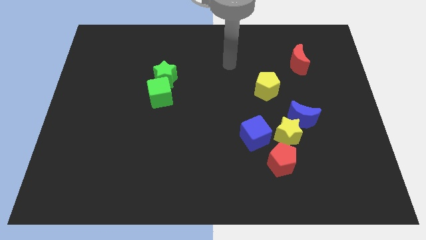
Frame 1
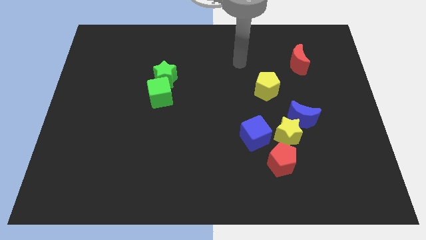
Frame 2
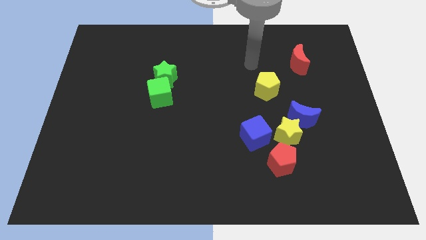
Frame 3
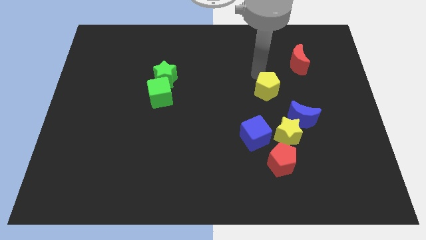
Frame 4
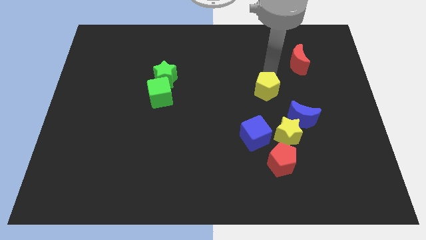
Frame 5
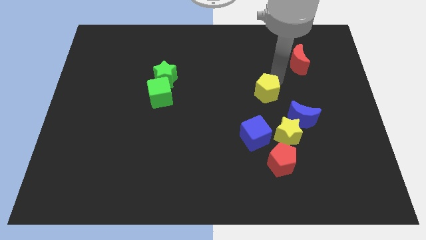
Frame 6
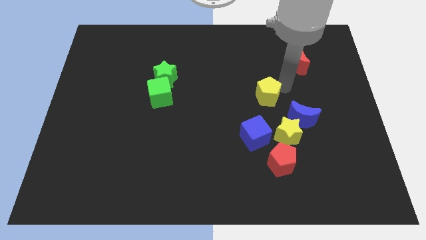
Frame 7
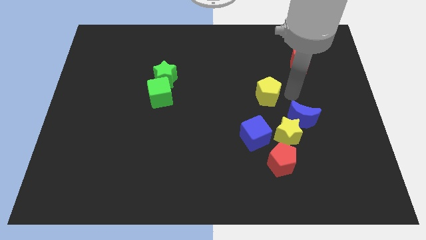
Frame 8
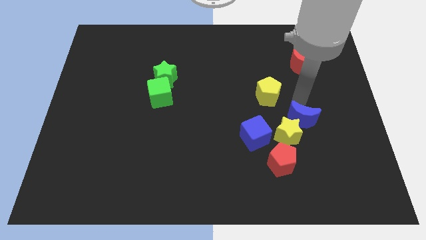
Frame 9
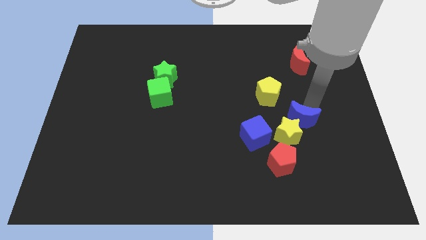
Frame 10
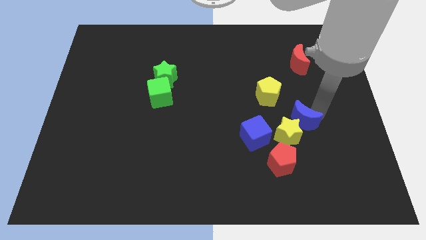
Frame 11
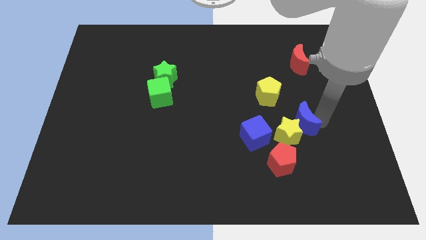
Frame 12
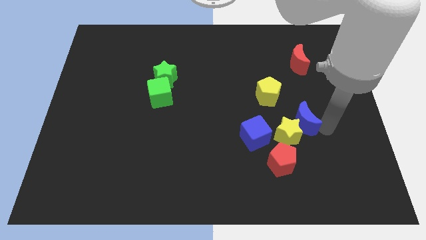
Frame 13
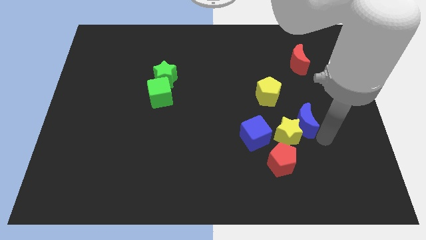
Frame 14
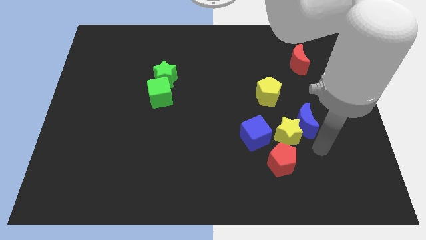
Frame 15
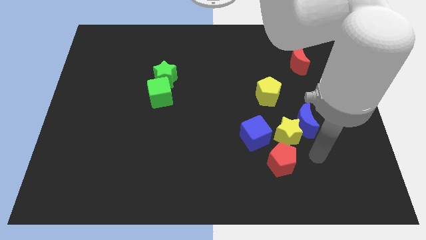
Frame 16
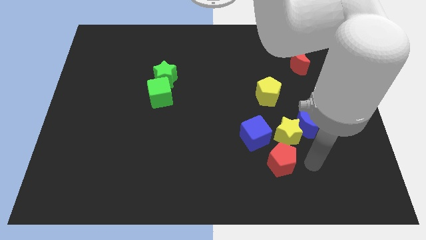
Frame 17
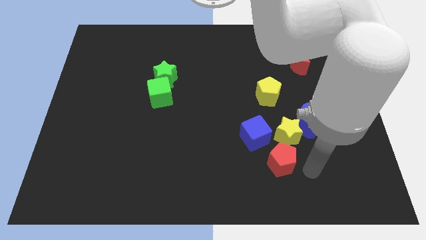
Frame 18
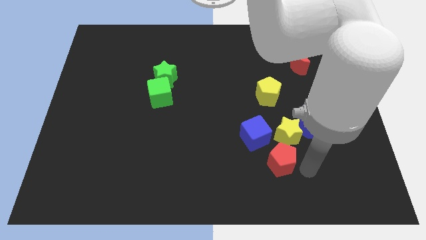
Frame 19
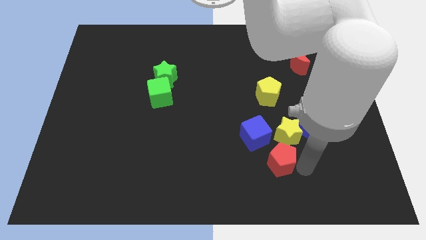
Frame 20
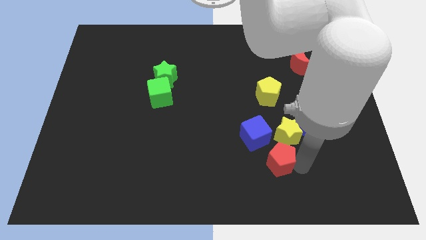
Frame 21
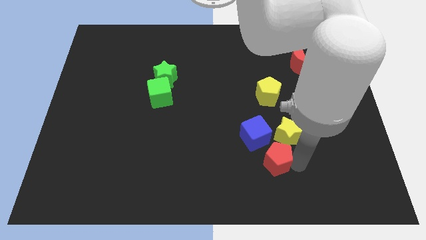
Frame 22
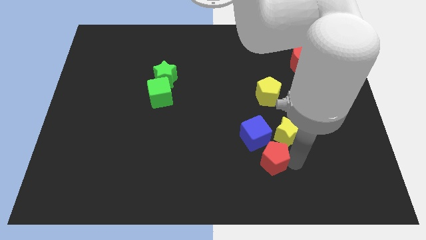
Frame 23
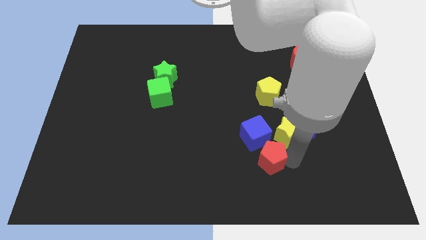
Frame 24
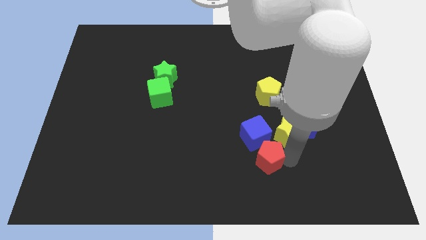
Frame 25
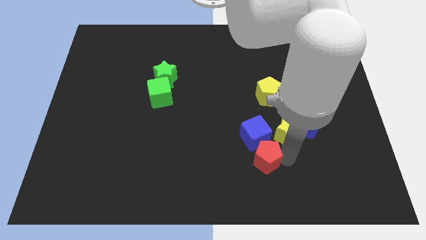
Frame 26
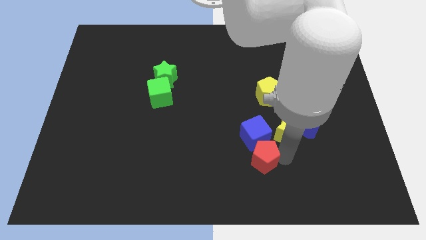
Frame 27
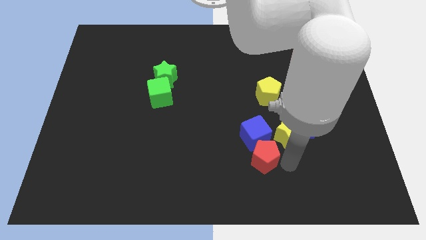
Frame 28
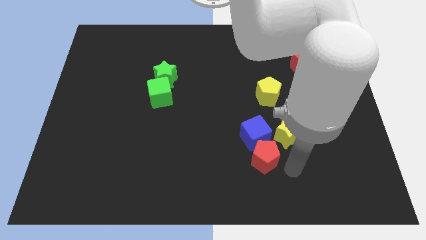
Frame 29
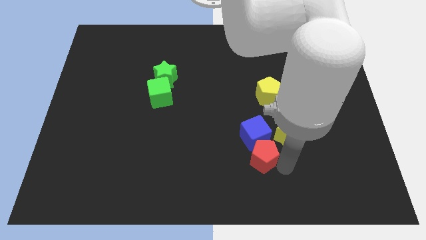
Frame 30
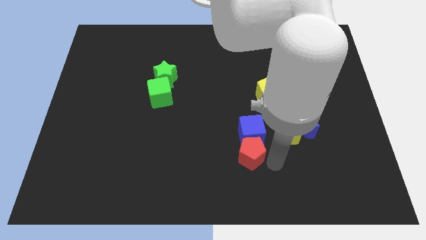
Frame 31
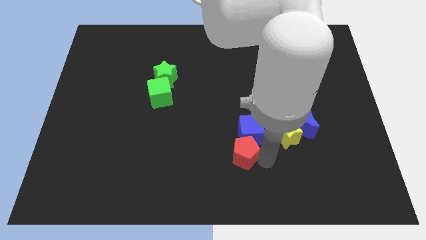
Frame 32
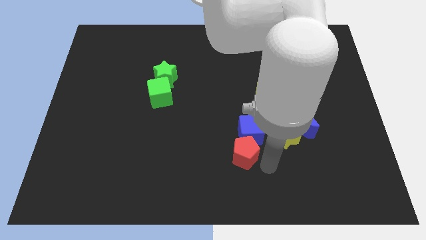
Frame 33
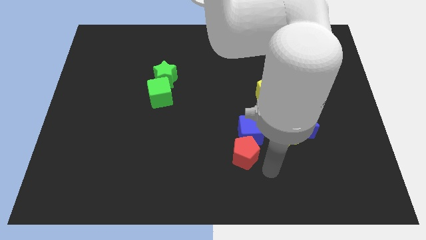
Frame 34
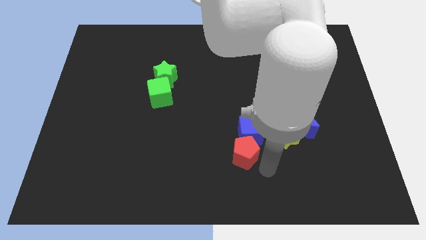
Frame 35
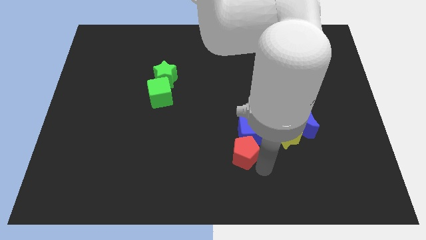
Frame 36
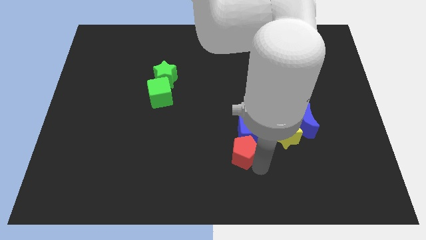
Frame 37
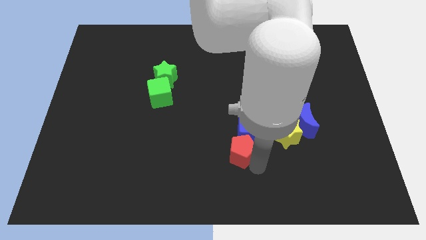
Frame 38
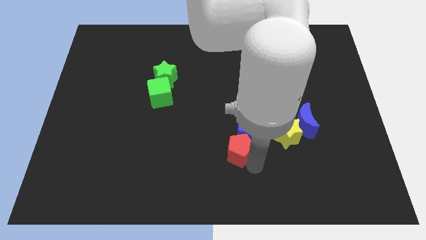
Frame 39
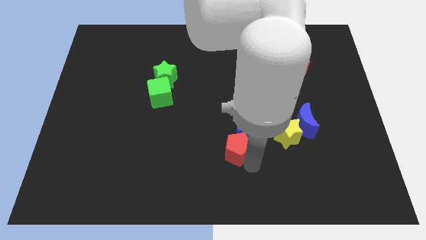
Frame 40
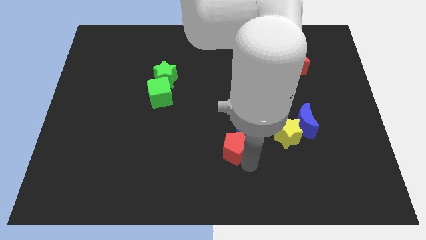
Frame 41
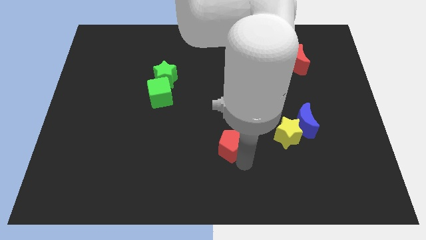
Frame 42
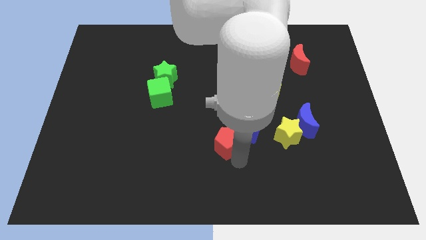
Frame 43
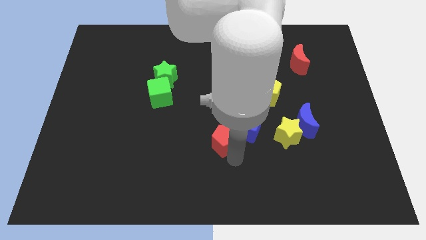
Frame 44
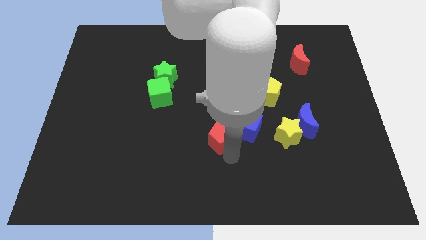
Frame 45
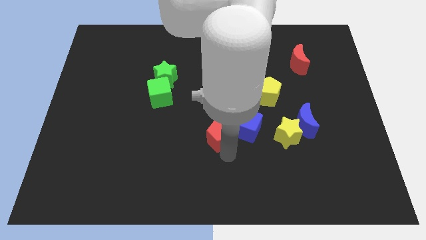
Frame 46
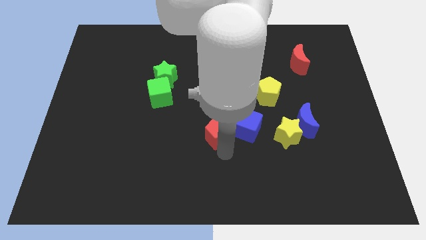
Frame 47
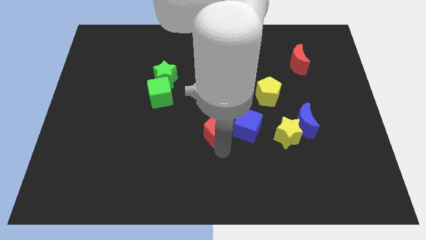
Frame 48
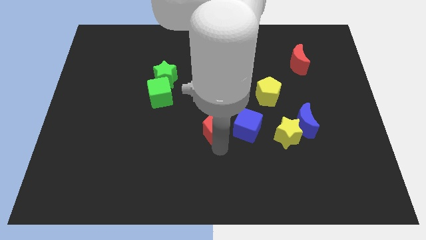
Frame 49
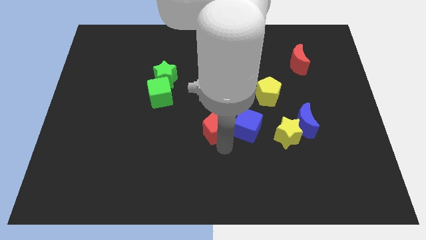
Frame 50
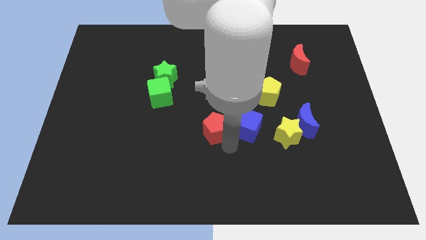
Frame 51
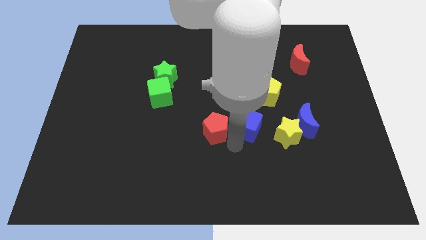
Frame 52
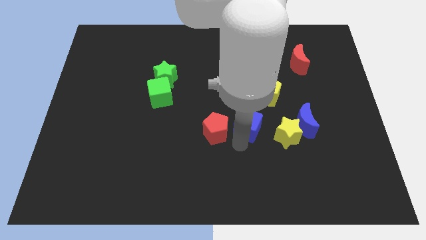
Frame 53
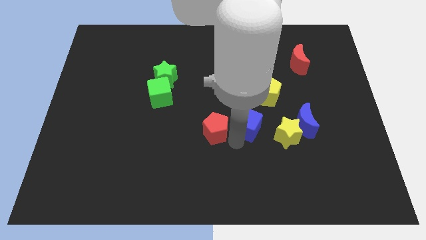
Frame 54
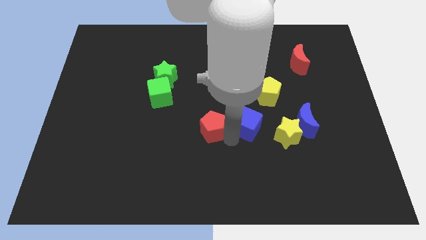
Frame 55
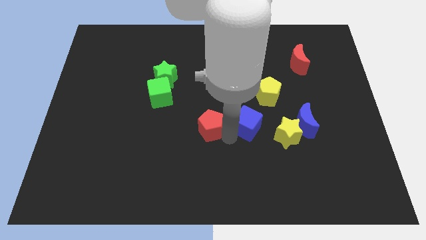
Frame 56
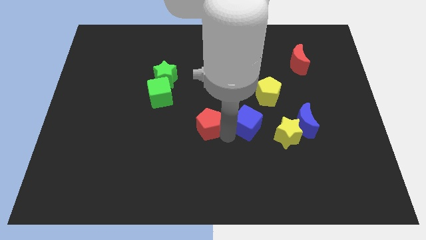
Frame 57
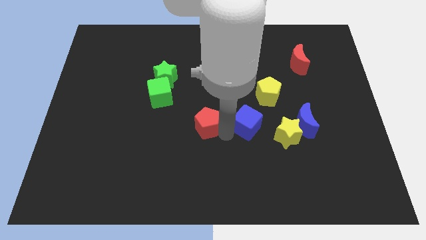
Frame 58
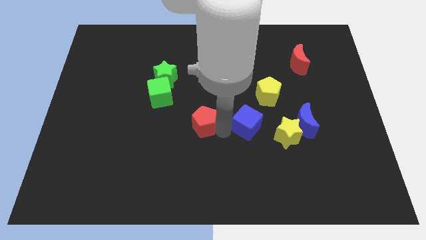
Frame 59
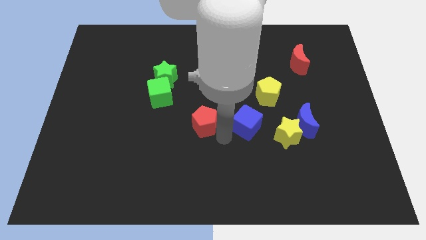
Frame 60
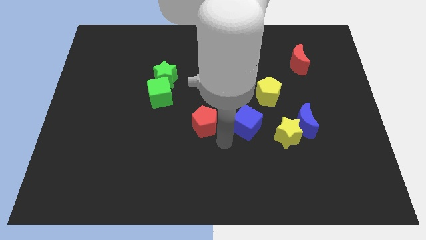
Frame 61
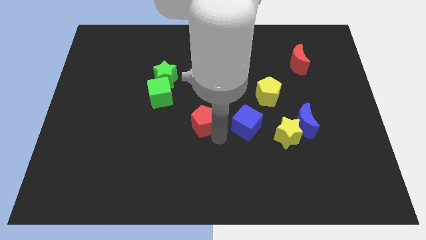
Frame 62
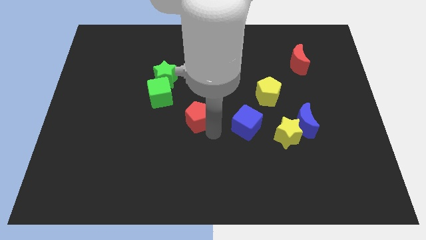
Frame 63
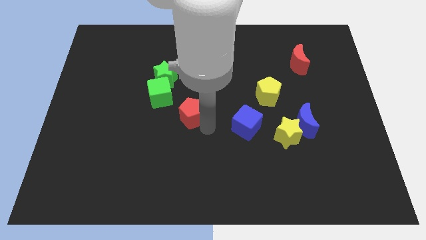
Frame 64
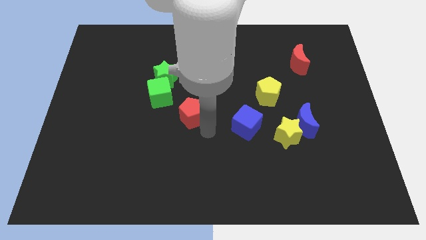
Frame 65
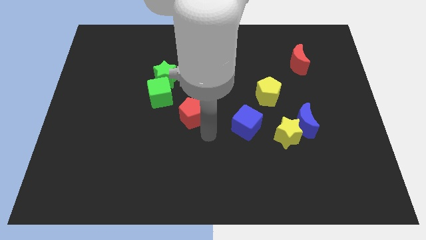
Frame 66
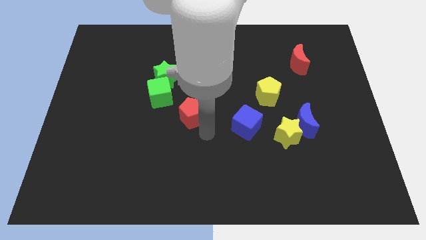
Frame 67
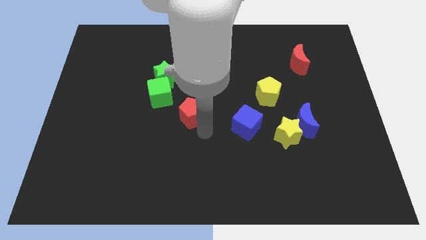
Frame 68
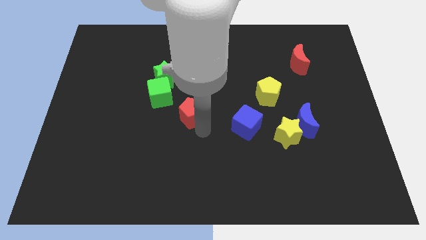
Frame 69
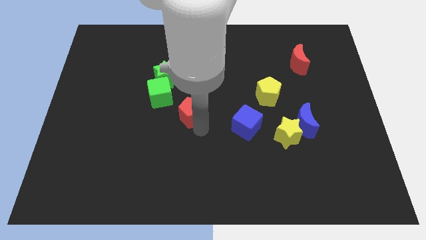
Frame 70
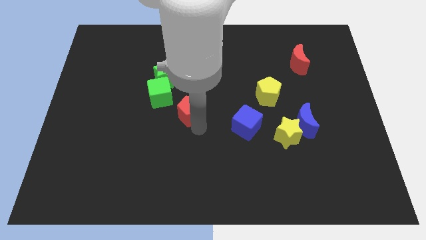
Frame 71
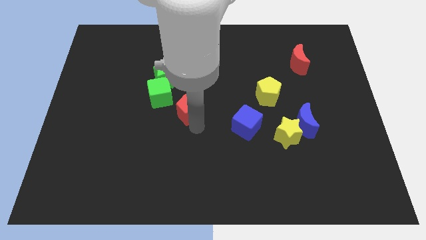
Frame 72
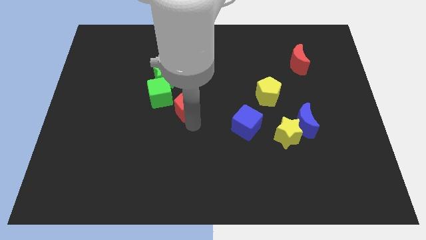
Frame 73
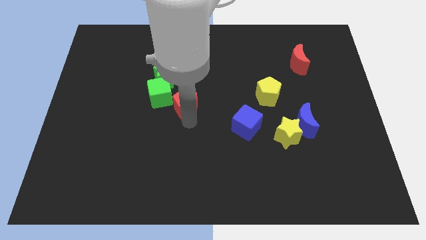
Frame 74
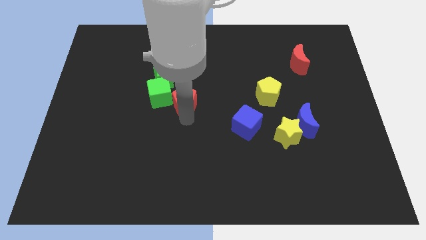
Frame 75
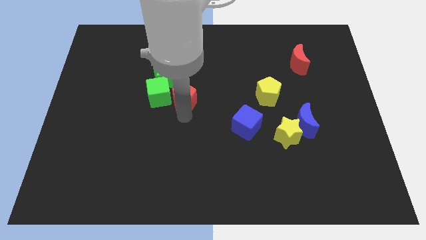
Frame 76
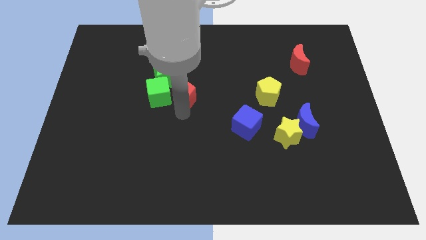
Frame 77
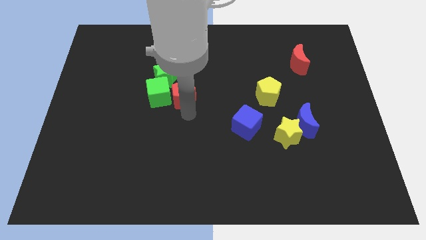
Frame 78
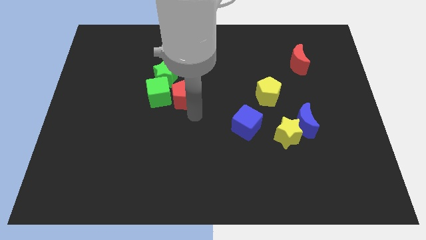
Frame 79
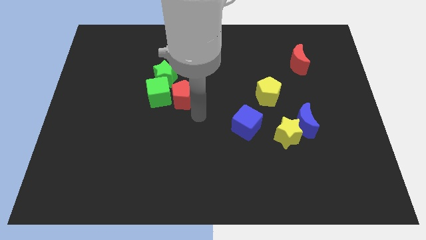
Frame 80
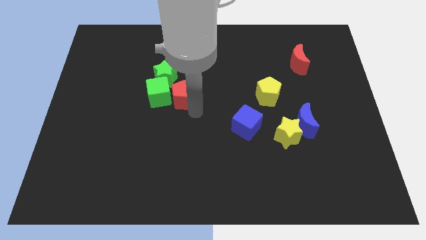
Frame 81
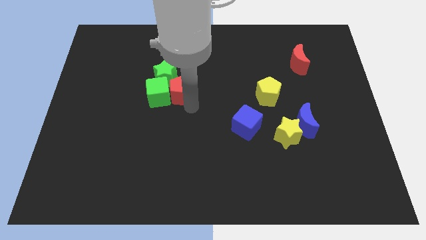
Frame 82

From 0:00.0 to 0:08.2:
slide the red pentagon towards the green star
